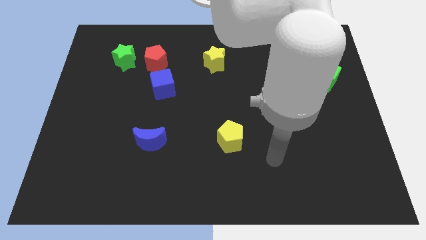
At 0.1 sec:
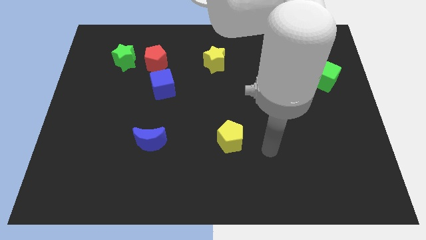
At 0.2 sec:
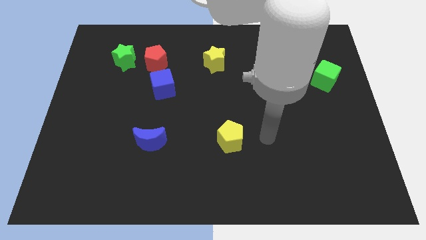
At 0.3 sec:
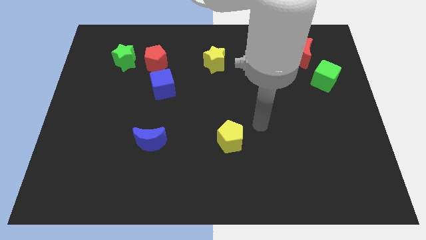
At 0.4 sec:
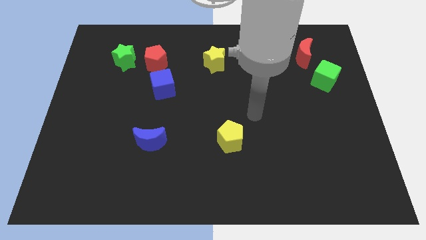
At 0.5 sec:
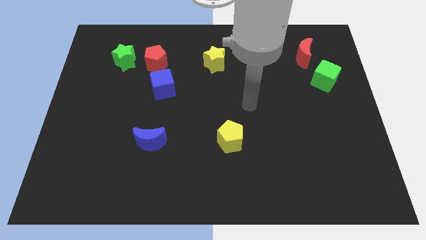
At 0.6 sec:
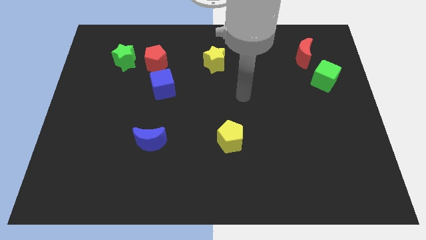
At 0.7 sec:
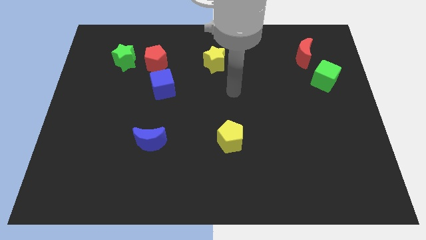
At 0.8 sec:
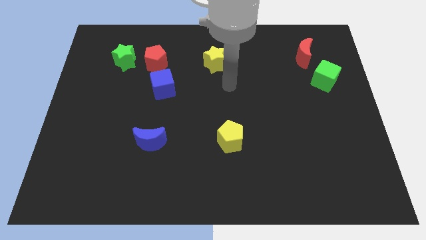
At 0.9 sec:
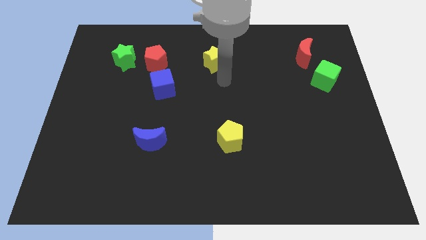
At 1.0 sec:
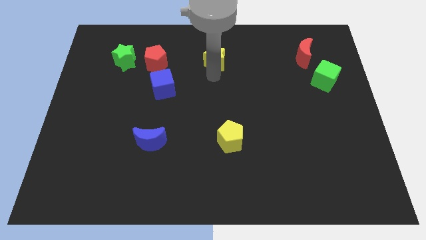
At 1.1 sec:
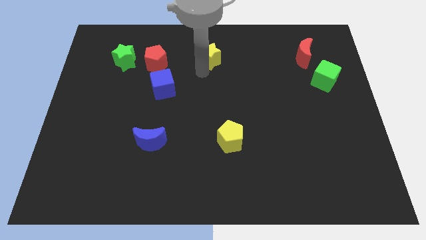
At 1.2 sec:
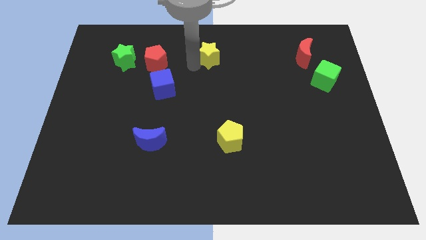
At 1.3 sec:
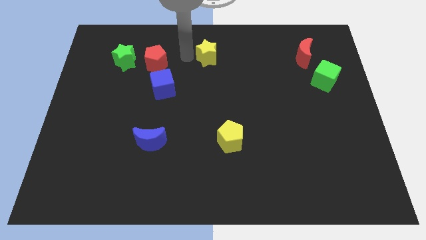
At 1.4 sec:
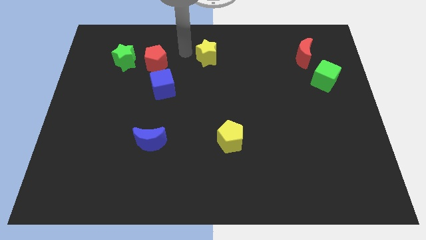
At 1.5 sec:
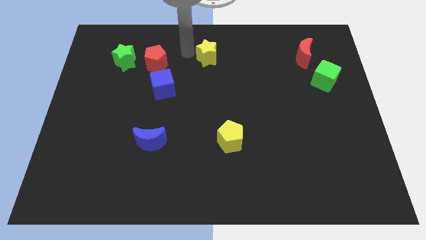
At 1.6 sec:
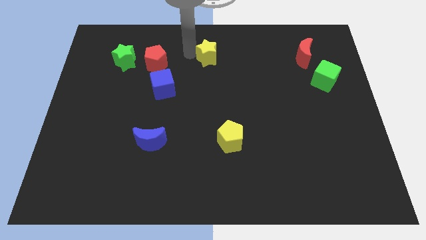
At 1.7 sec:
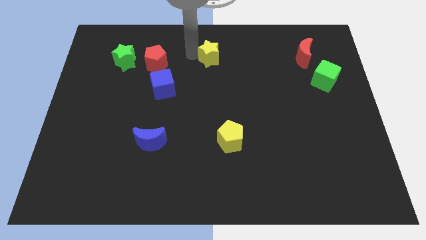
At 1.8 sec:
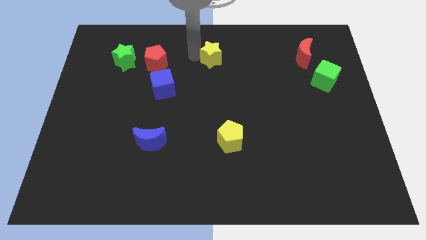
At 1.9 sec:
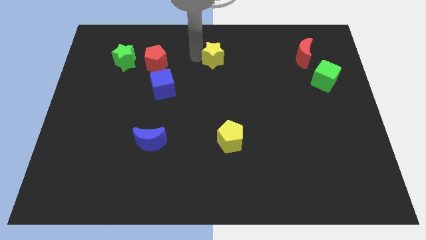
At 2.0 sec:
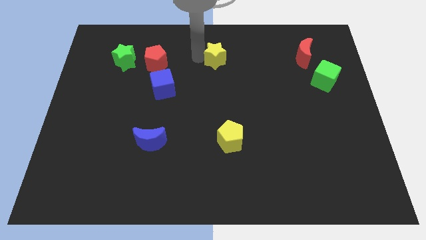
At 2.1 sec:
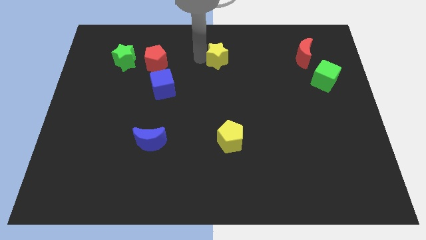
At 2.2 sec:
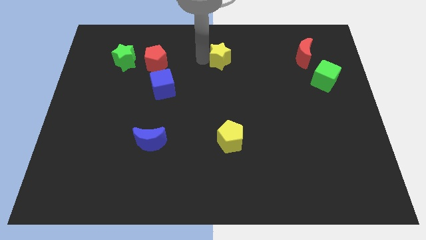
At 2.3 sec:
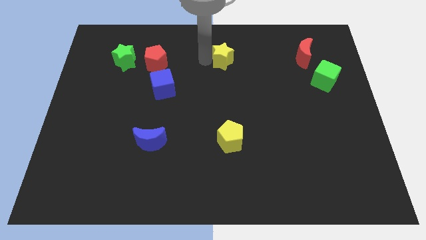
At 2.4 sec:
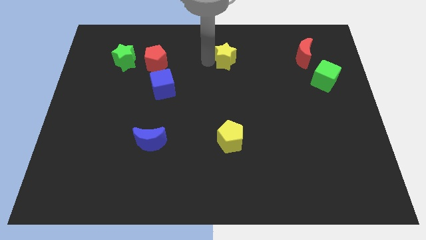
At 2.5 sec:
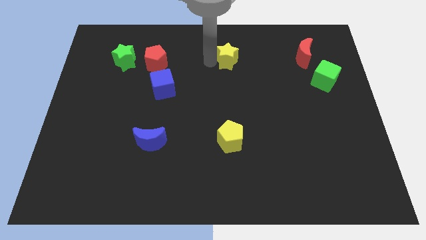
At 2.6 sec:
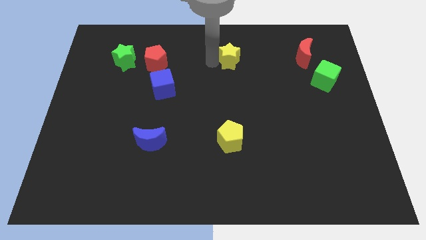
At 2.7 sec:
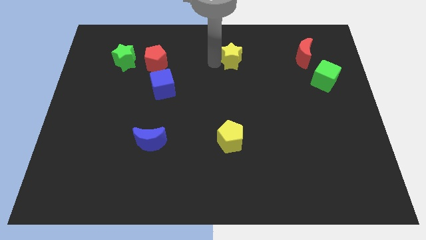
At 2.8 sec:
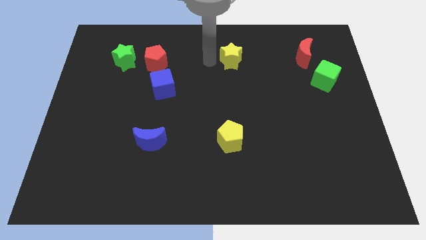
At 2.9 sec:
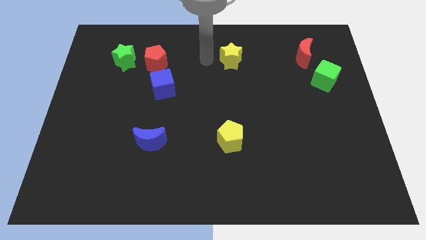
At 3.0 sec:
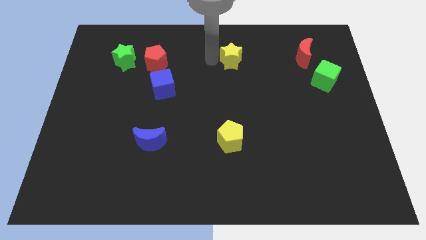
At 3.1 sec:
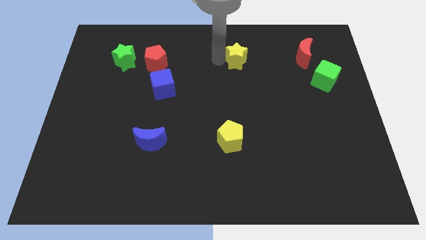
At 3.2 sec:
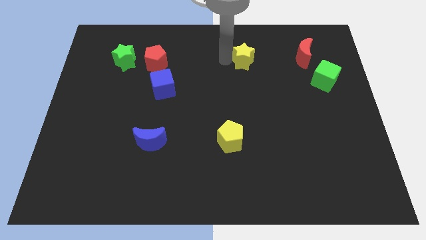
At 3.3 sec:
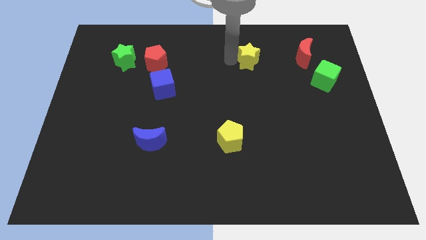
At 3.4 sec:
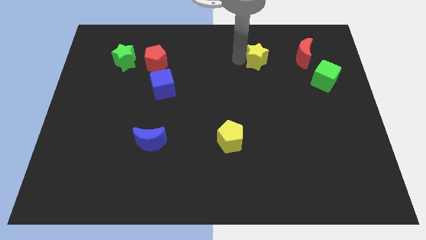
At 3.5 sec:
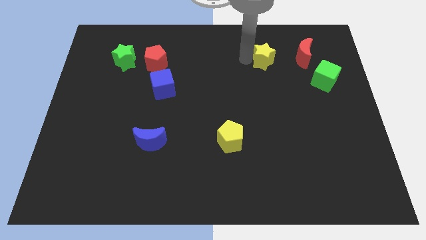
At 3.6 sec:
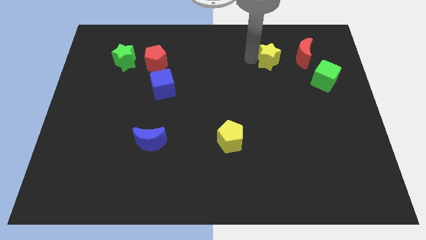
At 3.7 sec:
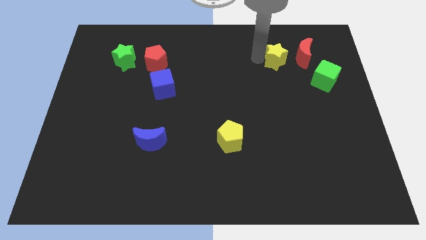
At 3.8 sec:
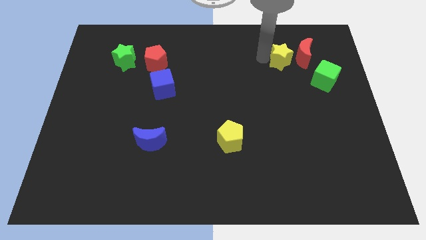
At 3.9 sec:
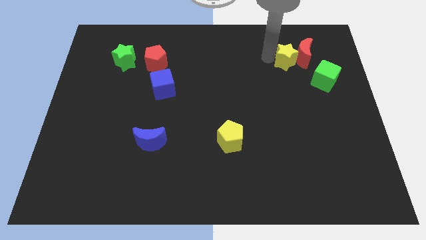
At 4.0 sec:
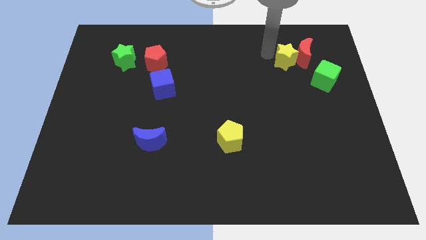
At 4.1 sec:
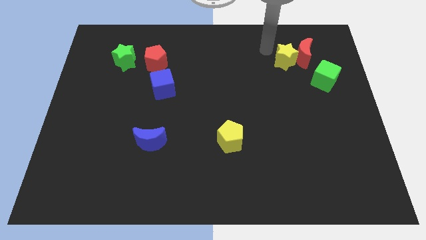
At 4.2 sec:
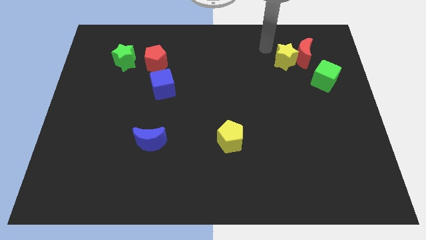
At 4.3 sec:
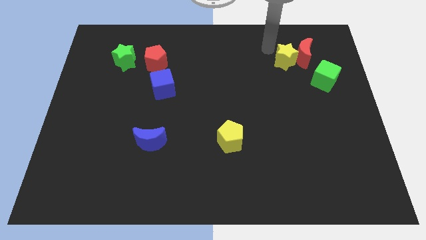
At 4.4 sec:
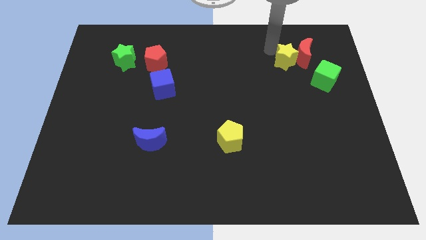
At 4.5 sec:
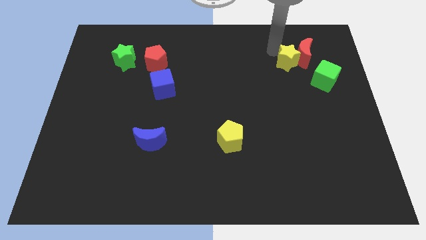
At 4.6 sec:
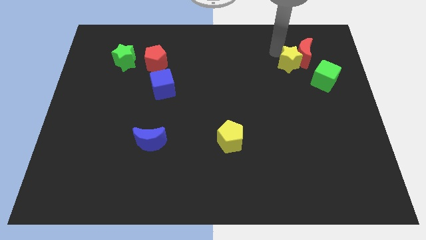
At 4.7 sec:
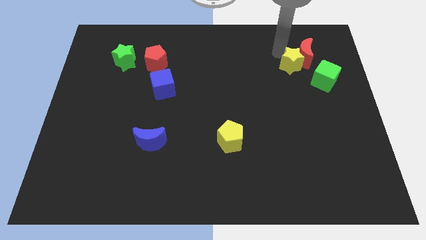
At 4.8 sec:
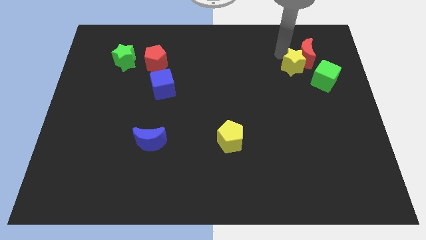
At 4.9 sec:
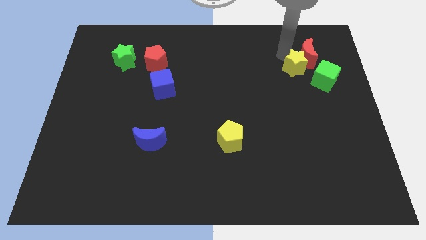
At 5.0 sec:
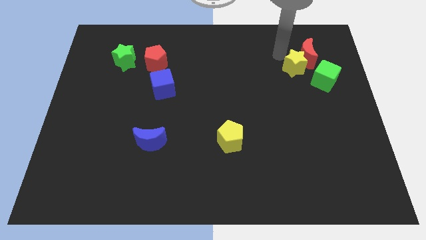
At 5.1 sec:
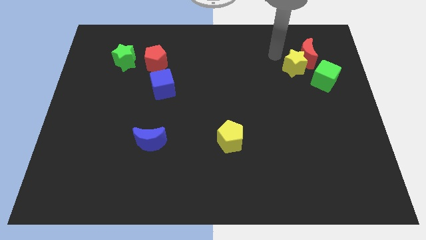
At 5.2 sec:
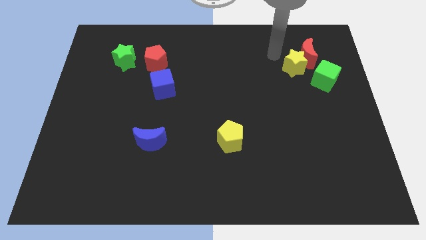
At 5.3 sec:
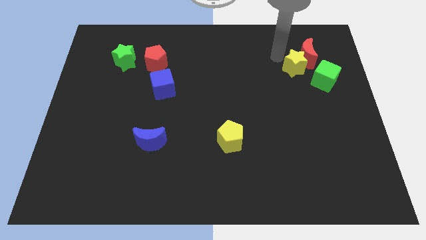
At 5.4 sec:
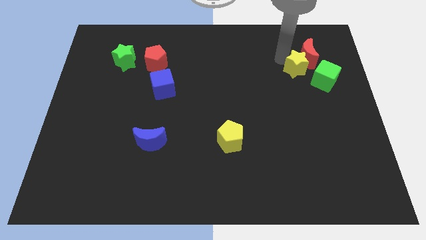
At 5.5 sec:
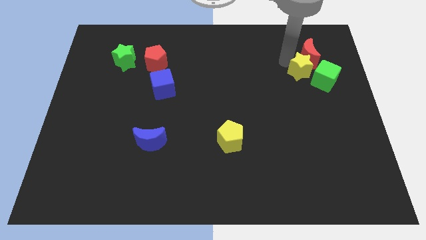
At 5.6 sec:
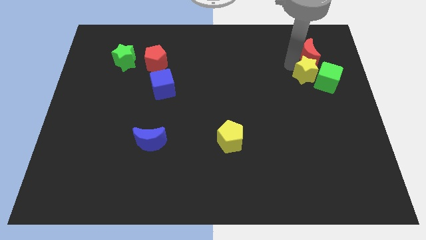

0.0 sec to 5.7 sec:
put the yellow star close to the green cube

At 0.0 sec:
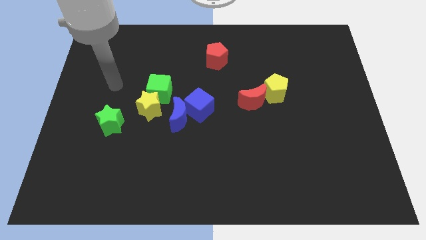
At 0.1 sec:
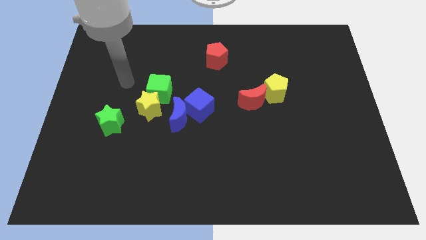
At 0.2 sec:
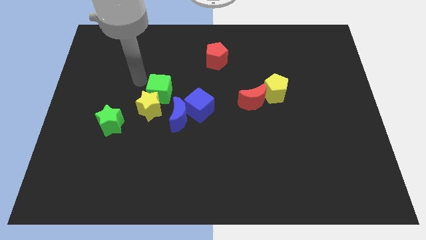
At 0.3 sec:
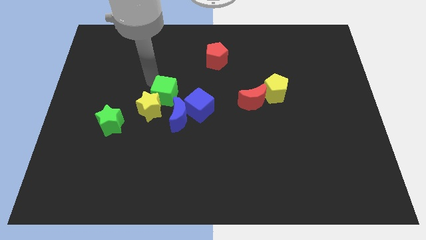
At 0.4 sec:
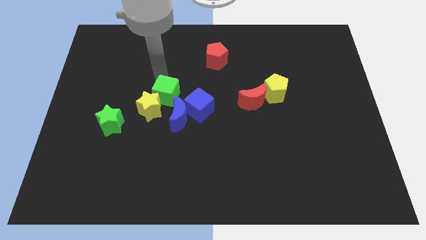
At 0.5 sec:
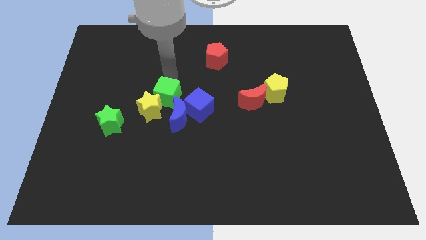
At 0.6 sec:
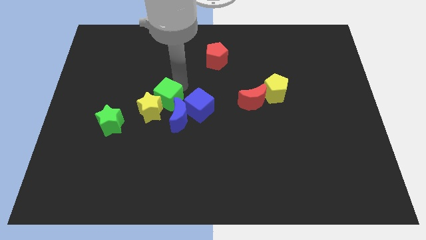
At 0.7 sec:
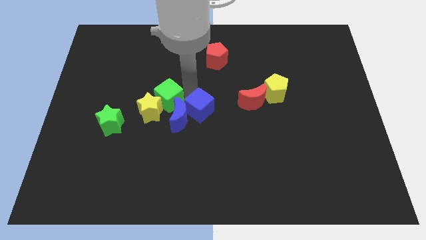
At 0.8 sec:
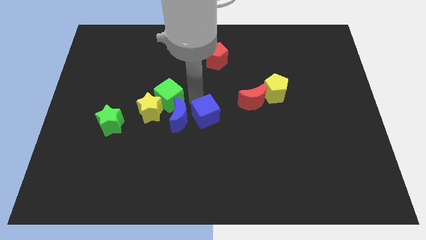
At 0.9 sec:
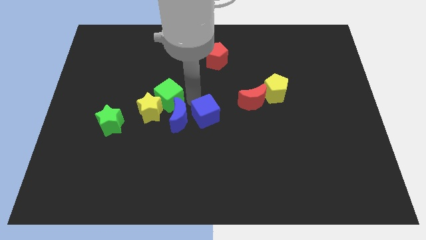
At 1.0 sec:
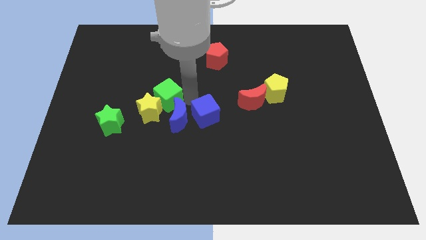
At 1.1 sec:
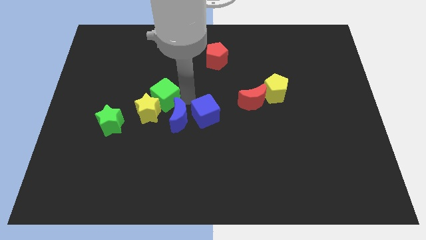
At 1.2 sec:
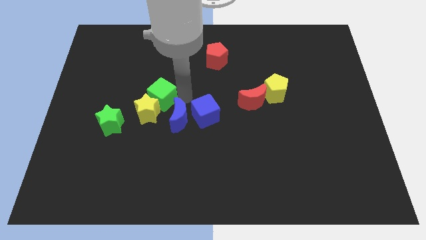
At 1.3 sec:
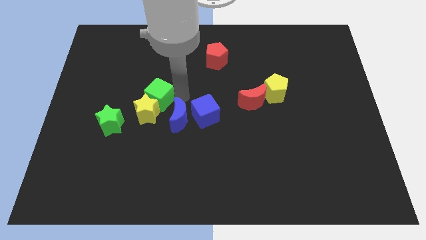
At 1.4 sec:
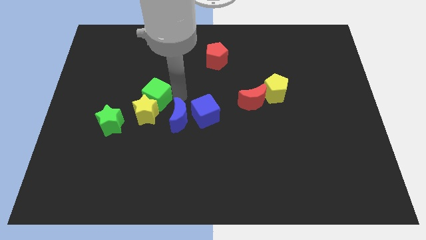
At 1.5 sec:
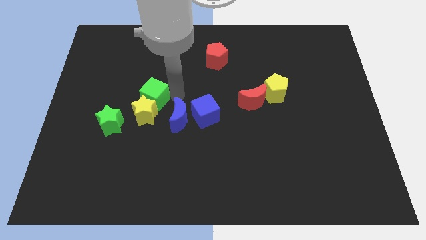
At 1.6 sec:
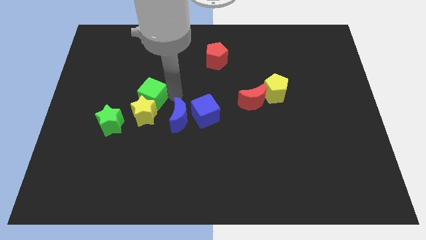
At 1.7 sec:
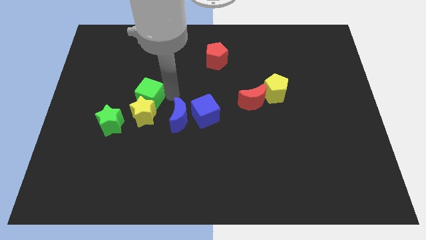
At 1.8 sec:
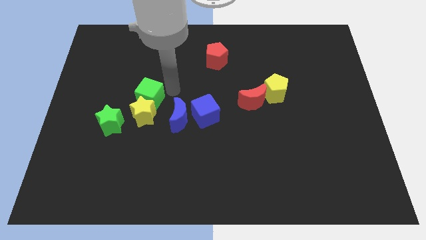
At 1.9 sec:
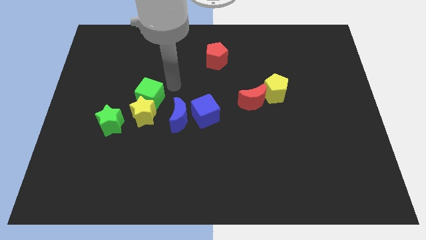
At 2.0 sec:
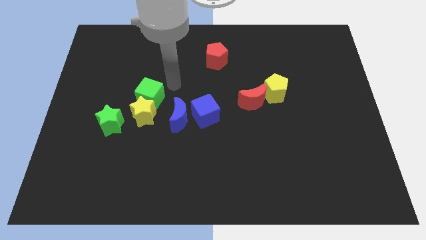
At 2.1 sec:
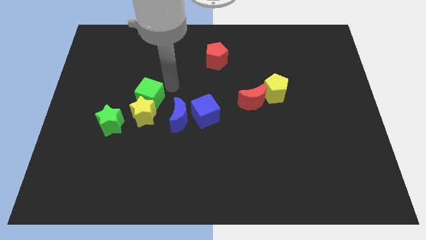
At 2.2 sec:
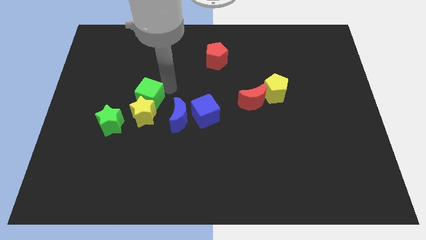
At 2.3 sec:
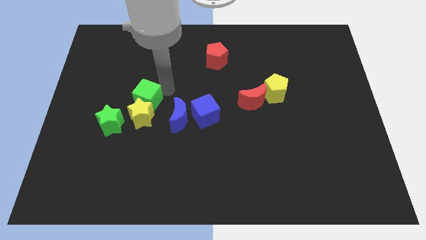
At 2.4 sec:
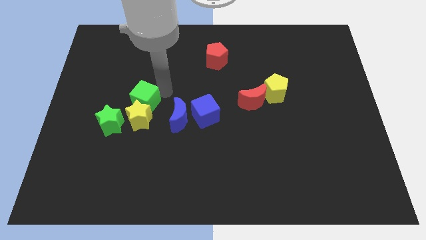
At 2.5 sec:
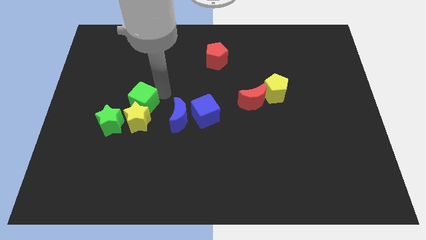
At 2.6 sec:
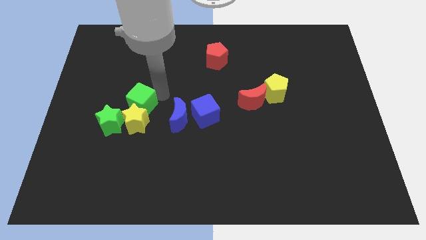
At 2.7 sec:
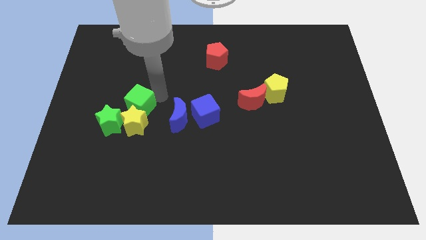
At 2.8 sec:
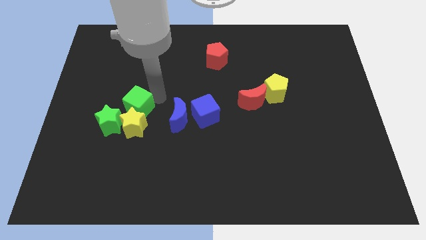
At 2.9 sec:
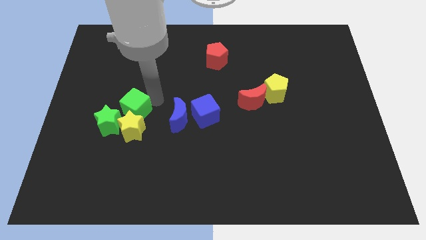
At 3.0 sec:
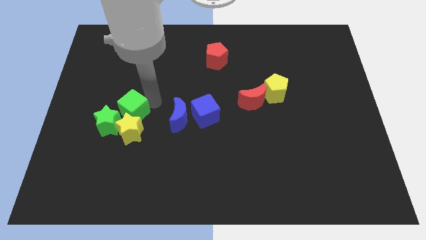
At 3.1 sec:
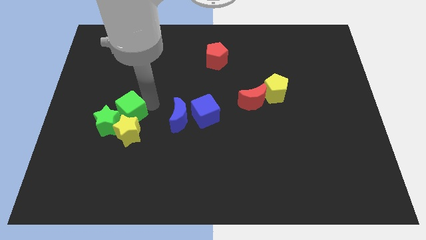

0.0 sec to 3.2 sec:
push the green cube to the green star
